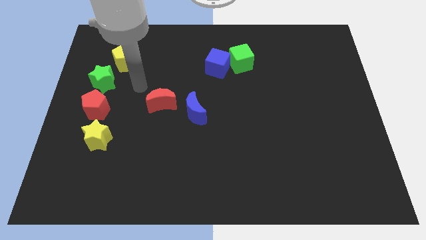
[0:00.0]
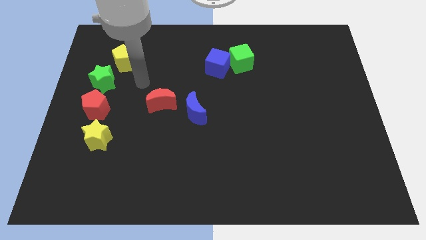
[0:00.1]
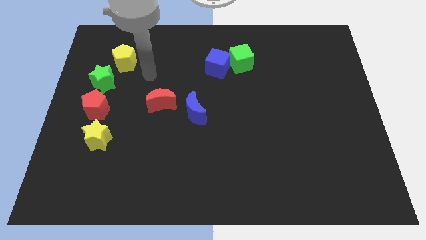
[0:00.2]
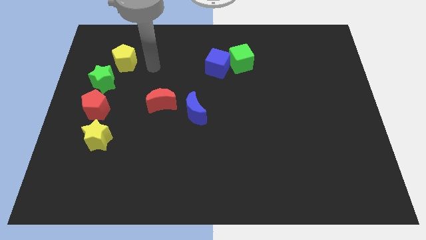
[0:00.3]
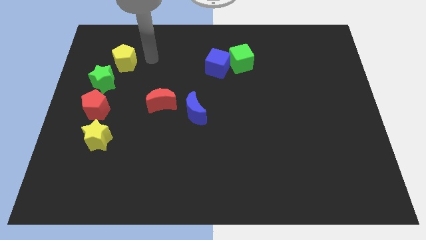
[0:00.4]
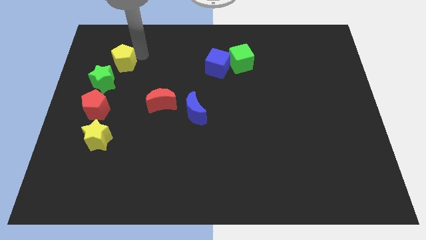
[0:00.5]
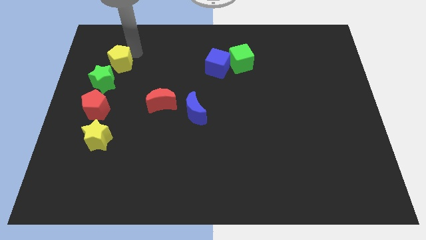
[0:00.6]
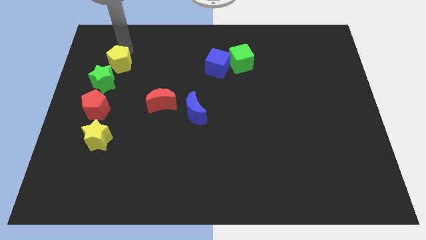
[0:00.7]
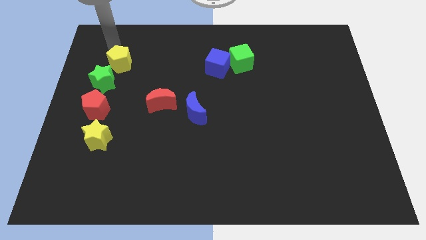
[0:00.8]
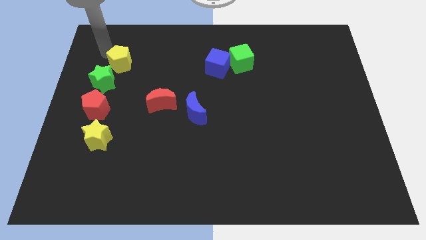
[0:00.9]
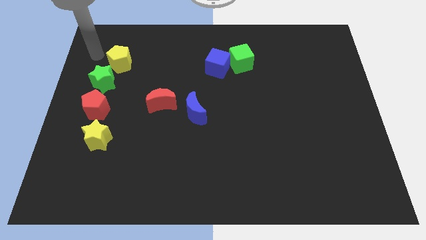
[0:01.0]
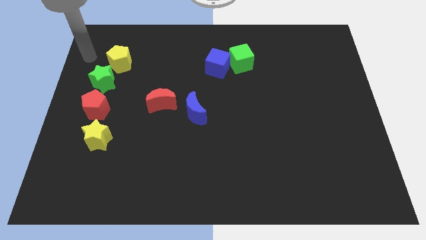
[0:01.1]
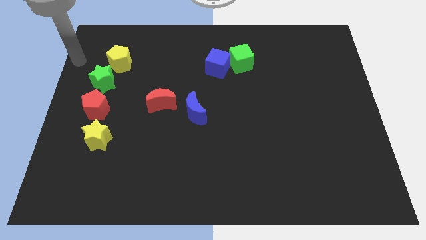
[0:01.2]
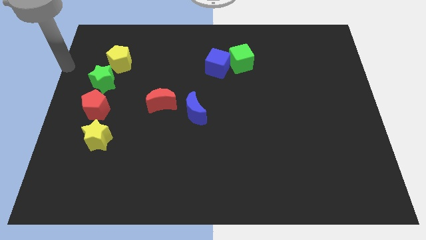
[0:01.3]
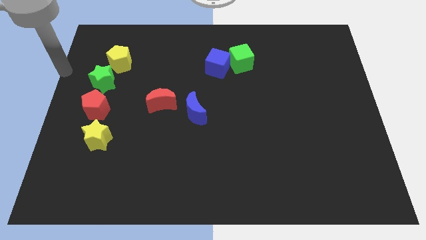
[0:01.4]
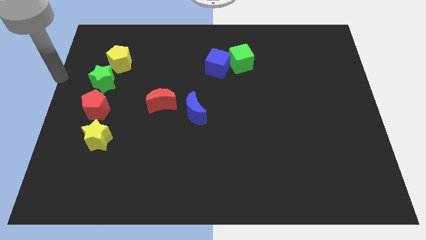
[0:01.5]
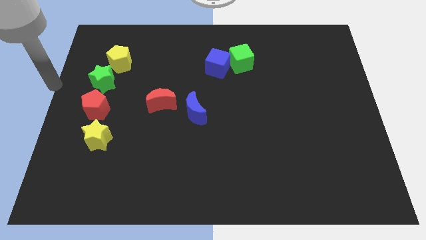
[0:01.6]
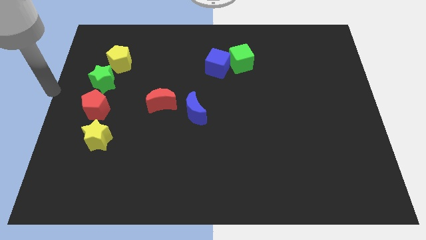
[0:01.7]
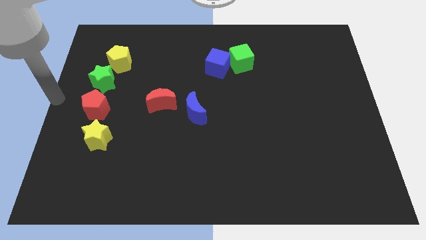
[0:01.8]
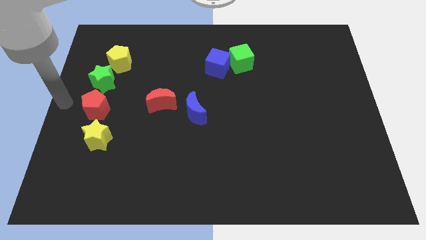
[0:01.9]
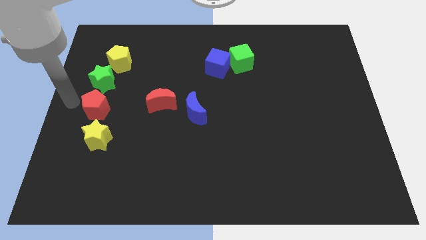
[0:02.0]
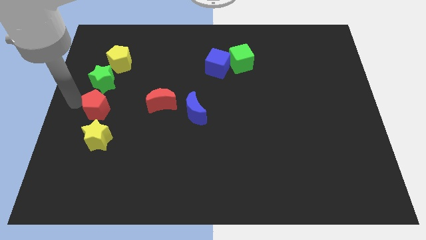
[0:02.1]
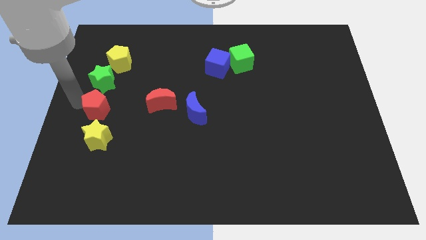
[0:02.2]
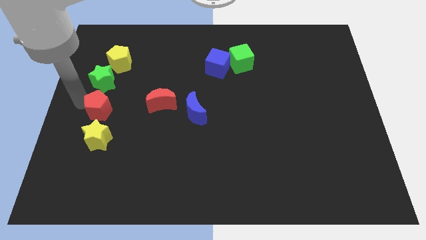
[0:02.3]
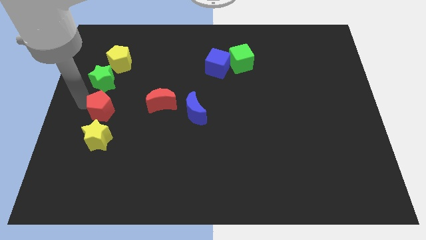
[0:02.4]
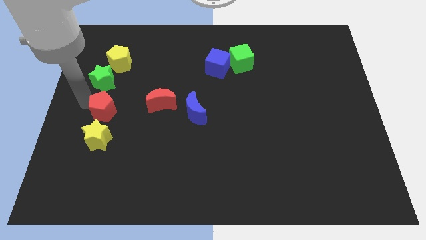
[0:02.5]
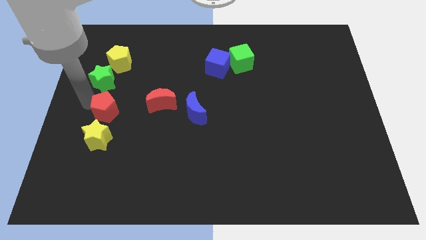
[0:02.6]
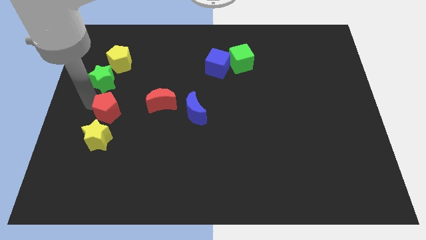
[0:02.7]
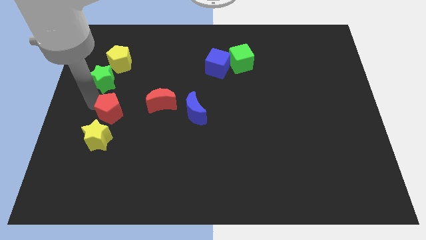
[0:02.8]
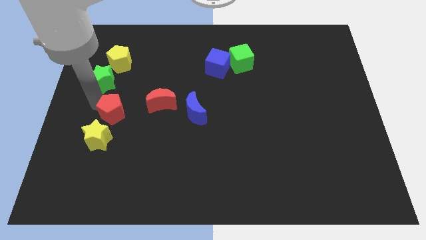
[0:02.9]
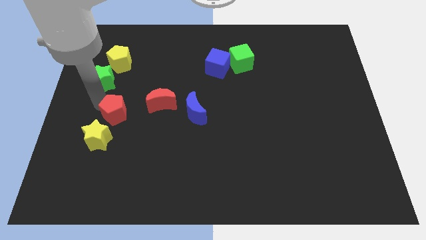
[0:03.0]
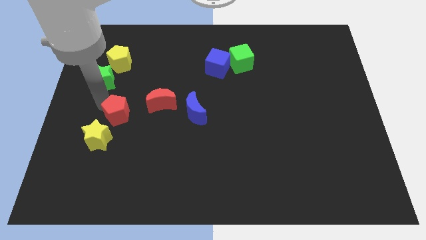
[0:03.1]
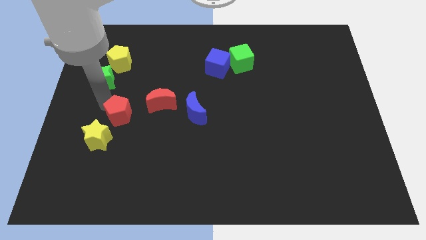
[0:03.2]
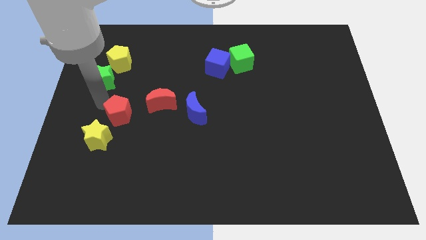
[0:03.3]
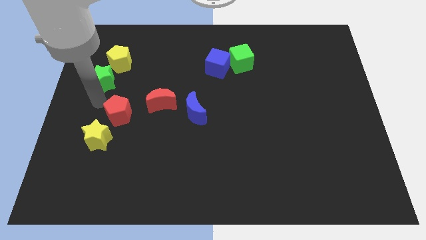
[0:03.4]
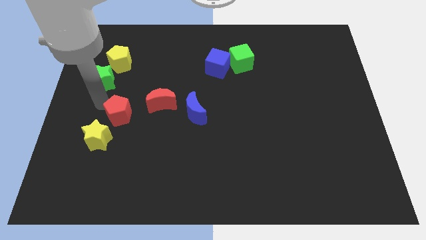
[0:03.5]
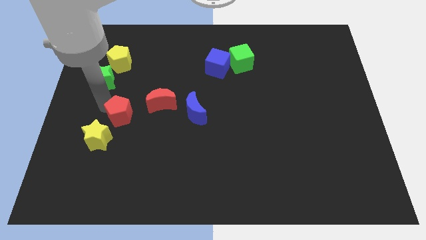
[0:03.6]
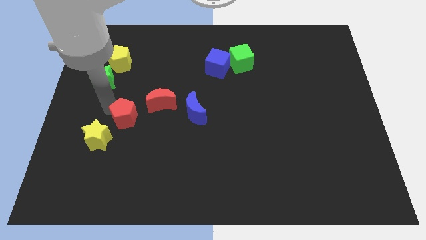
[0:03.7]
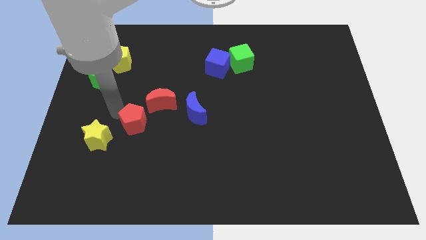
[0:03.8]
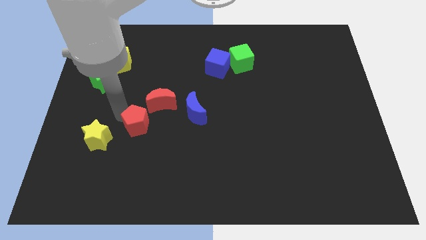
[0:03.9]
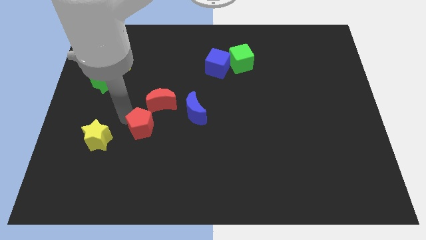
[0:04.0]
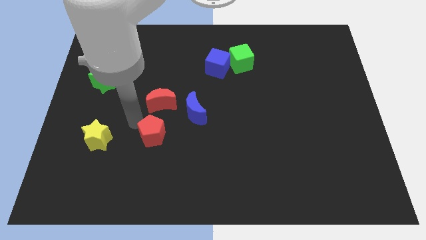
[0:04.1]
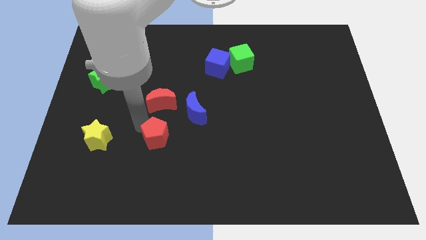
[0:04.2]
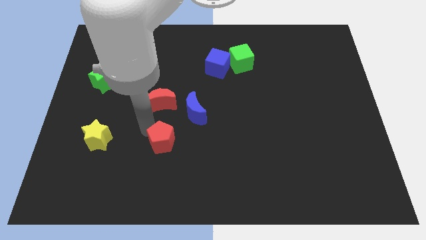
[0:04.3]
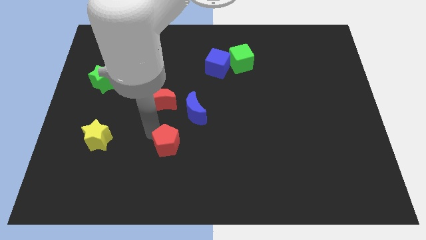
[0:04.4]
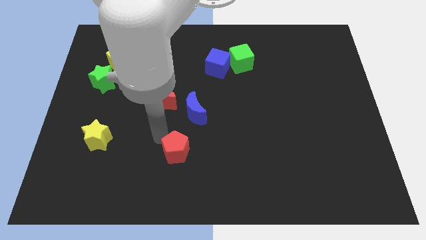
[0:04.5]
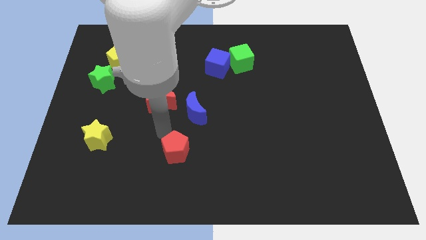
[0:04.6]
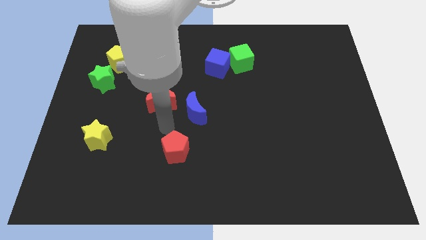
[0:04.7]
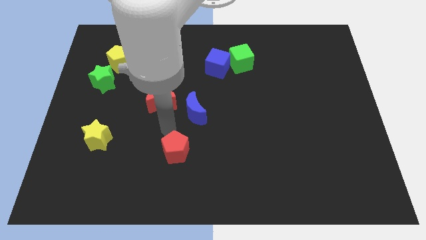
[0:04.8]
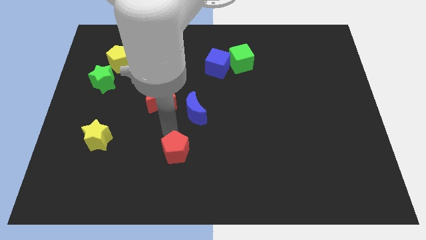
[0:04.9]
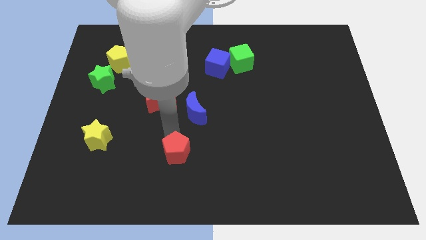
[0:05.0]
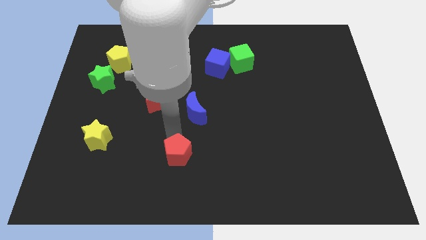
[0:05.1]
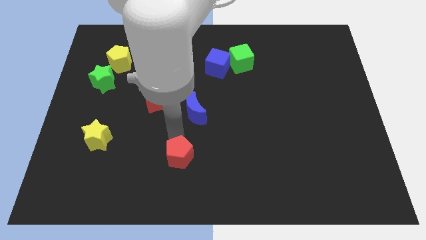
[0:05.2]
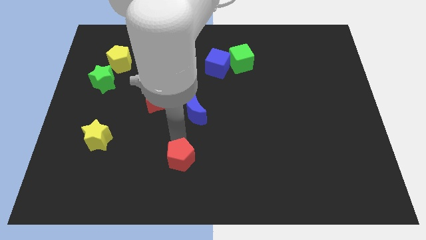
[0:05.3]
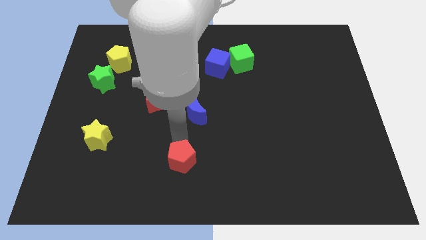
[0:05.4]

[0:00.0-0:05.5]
push the red pentagon to the bottom side

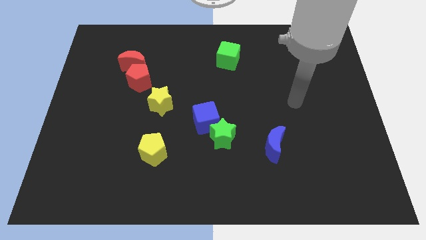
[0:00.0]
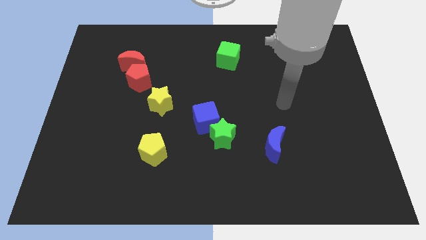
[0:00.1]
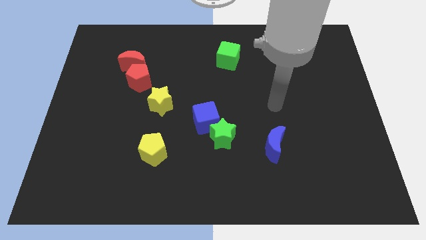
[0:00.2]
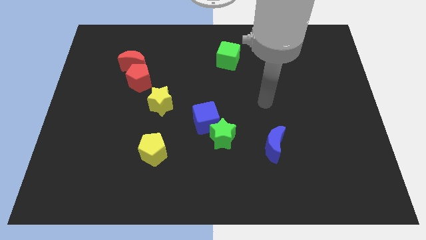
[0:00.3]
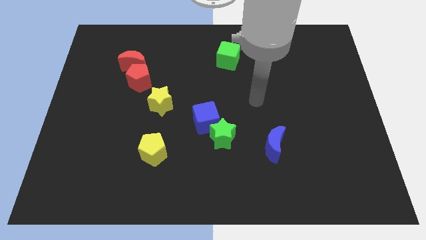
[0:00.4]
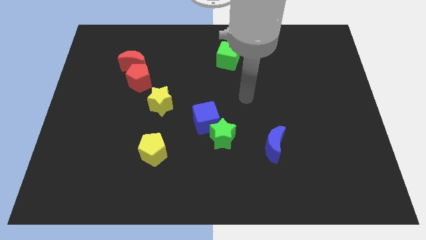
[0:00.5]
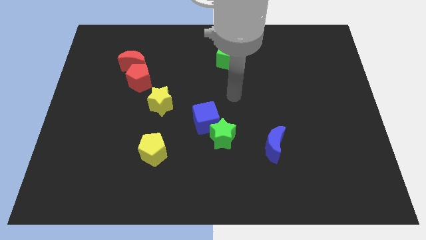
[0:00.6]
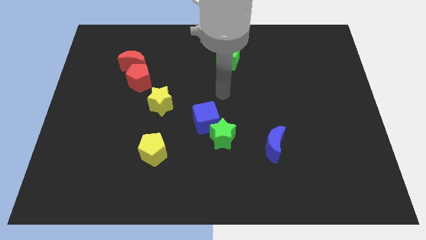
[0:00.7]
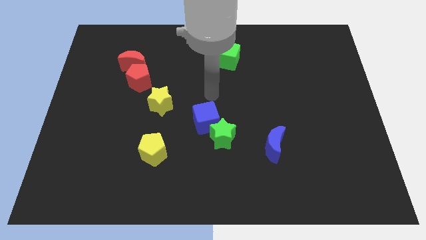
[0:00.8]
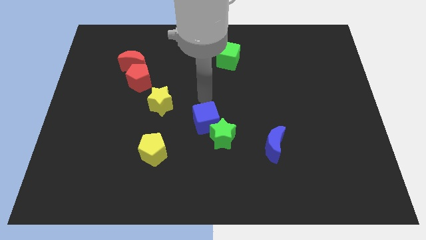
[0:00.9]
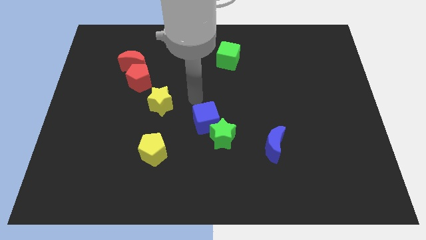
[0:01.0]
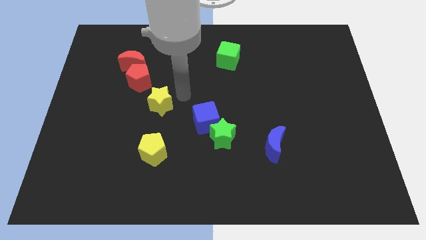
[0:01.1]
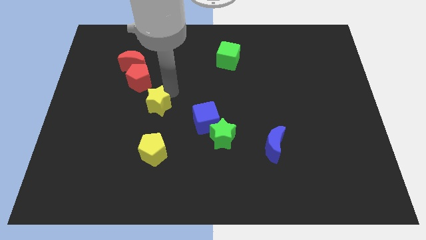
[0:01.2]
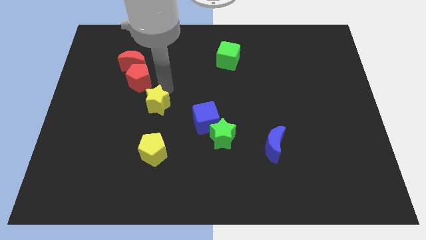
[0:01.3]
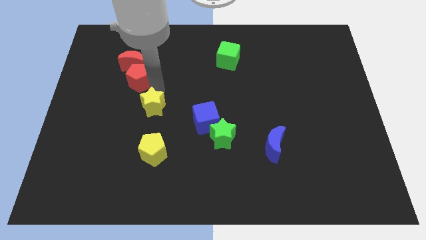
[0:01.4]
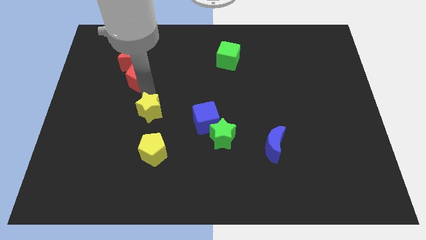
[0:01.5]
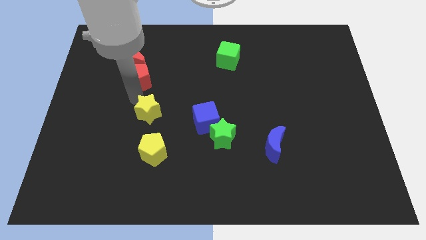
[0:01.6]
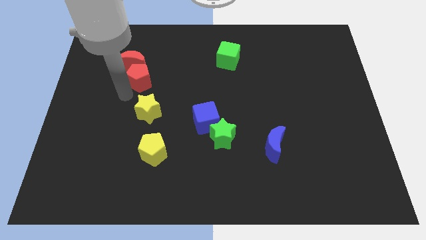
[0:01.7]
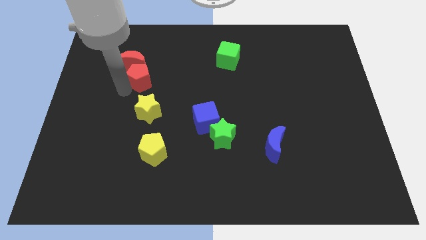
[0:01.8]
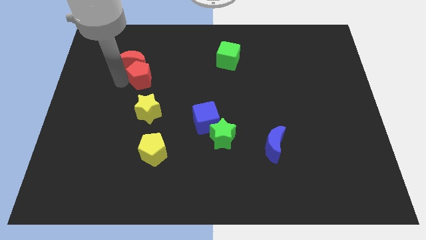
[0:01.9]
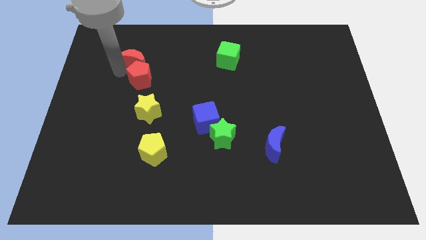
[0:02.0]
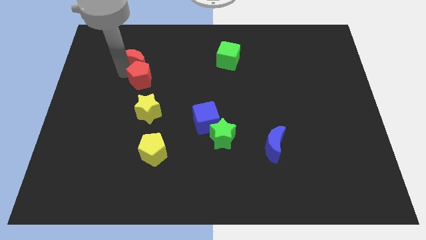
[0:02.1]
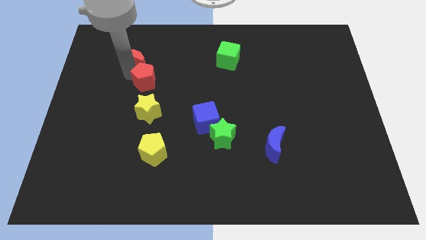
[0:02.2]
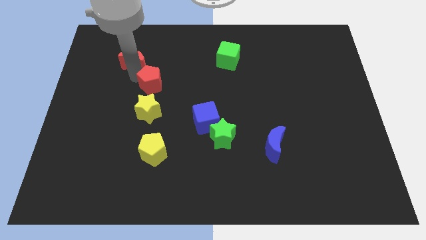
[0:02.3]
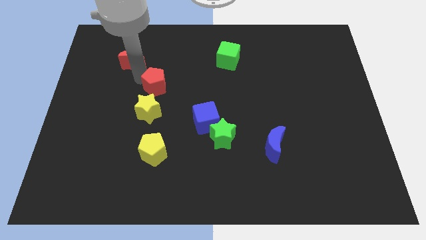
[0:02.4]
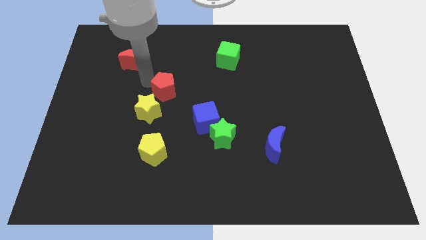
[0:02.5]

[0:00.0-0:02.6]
move the red pentagon to the middle
